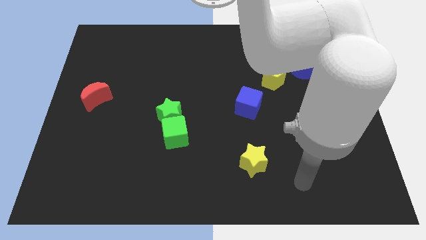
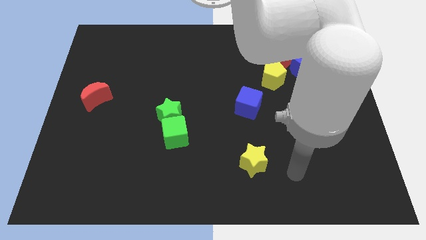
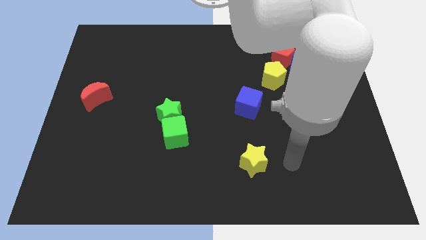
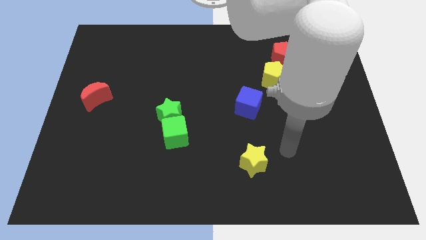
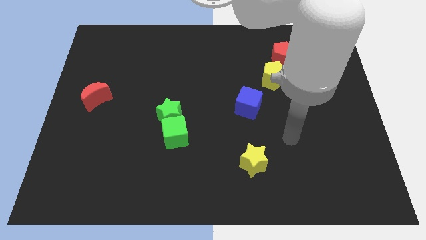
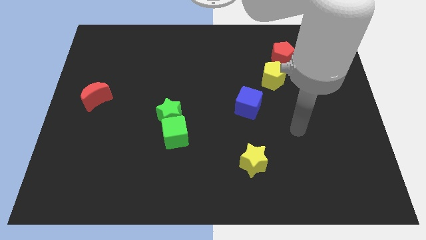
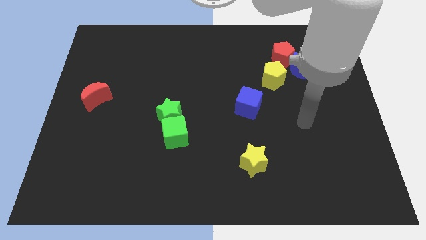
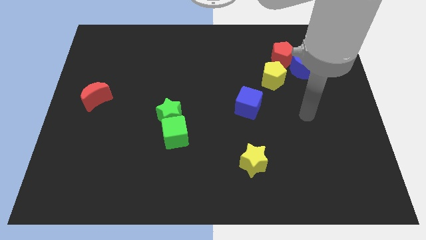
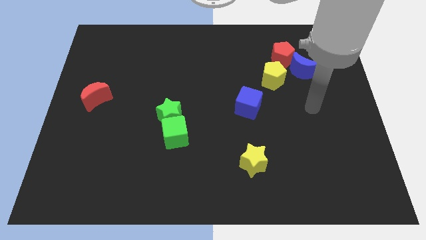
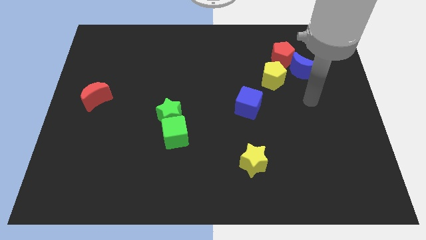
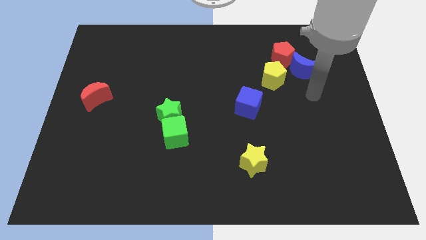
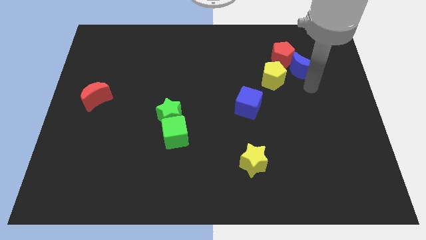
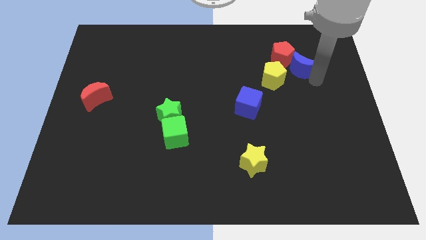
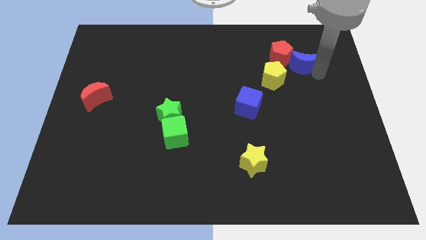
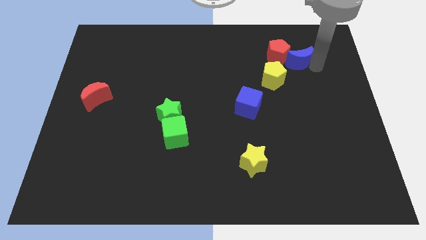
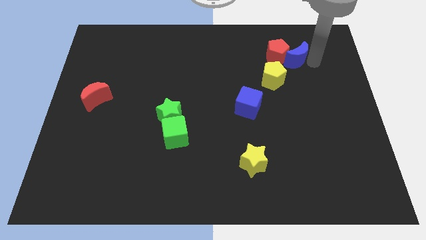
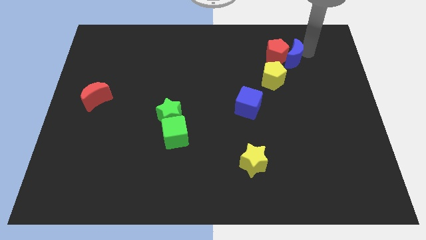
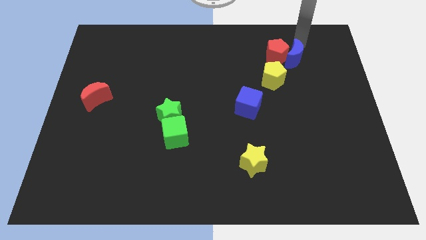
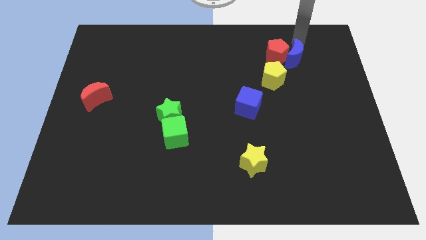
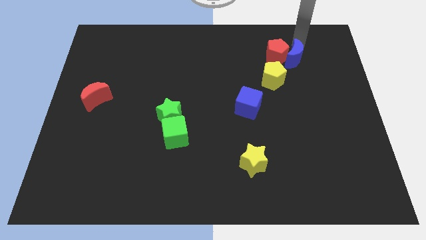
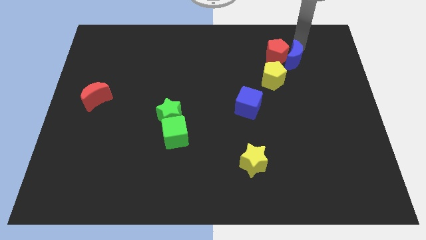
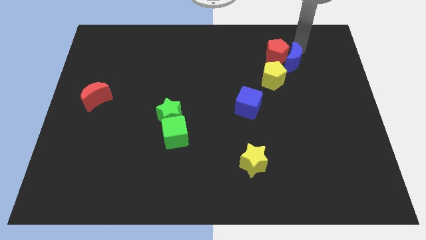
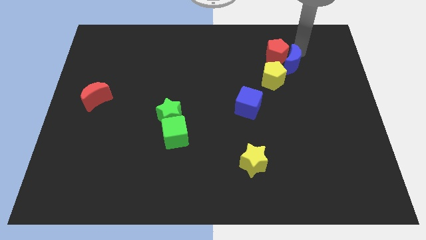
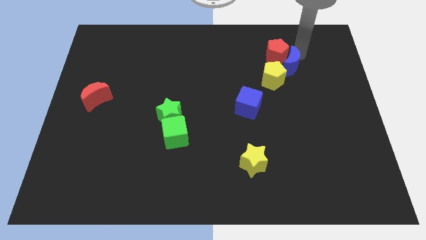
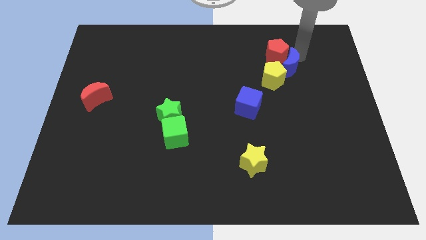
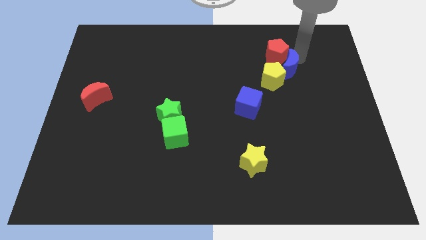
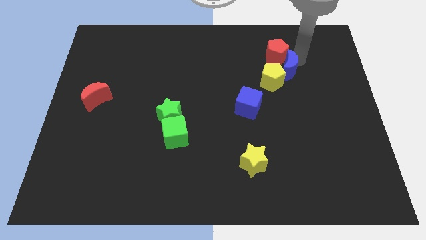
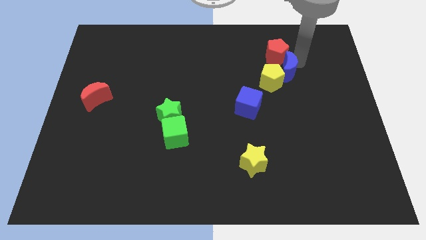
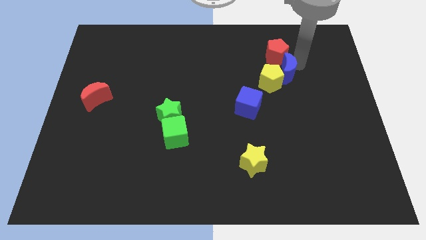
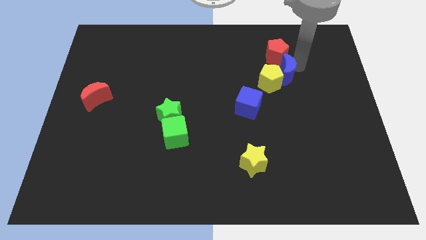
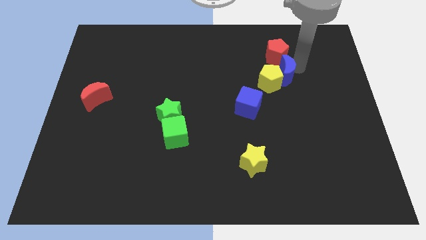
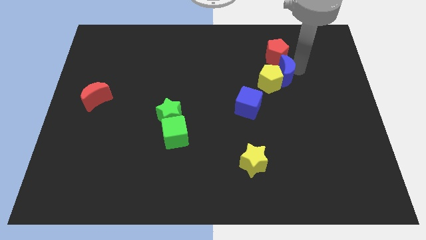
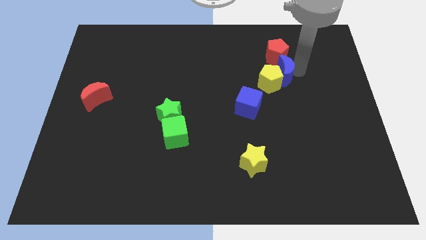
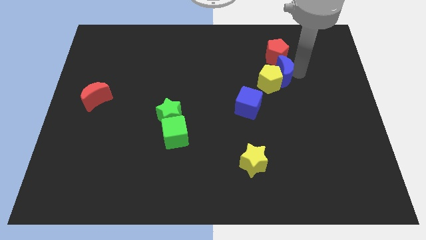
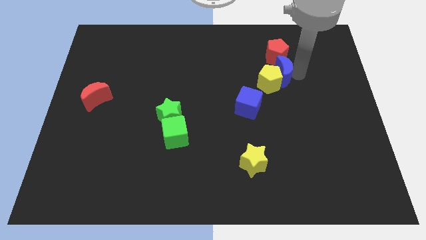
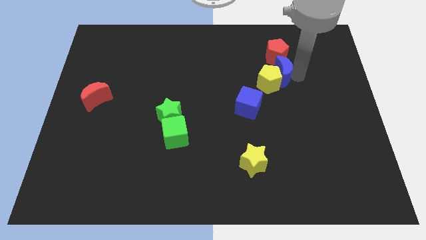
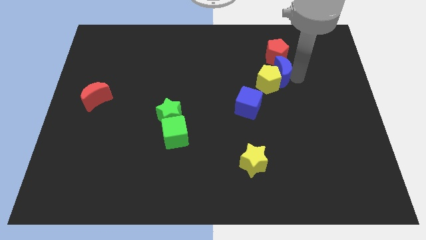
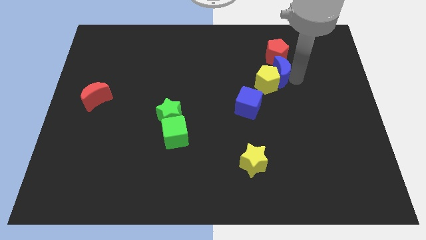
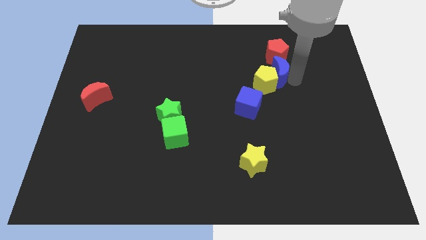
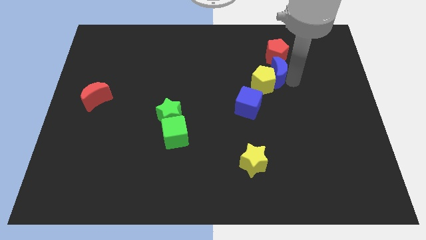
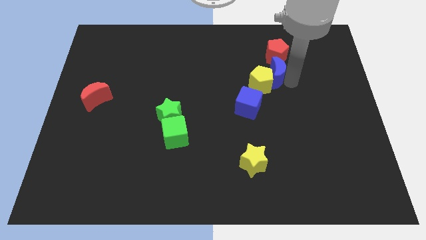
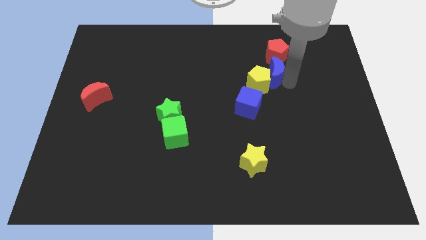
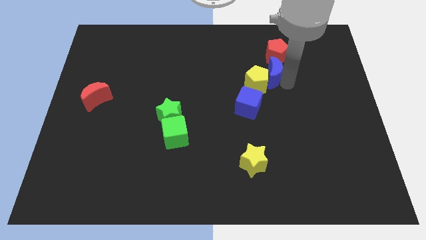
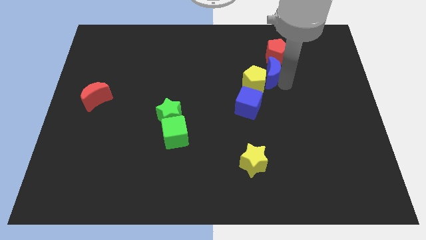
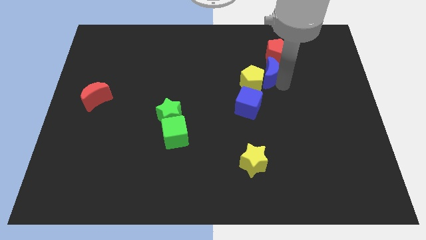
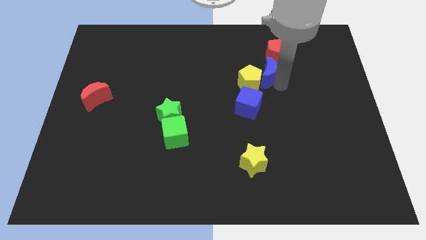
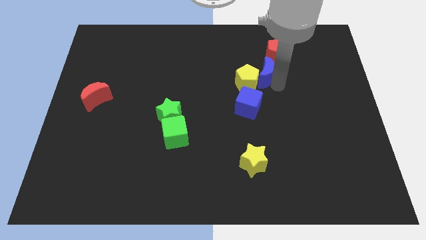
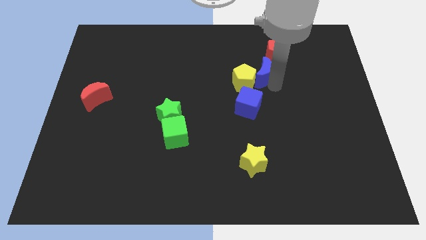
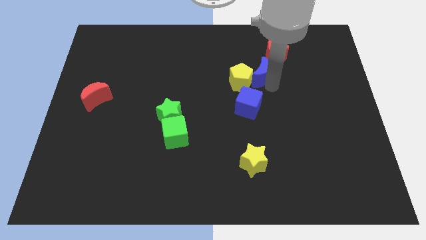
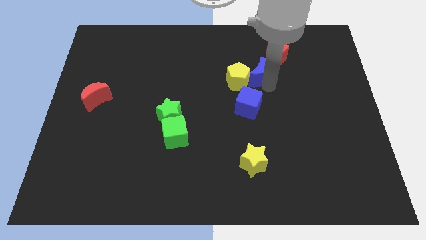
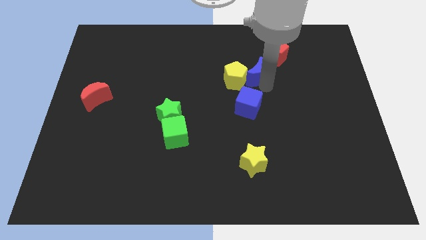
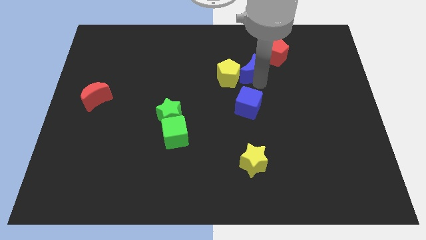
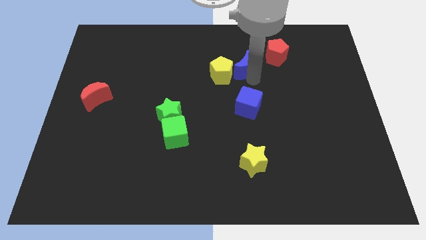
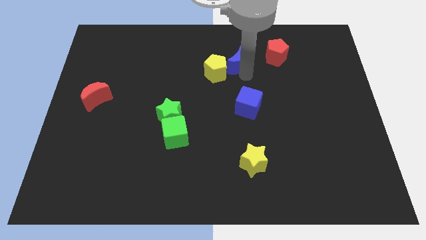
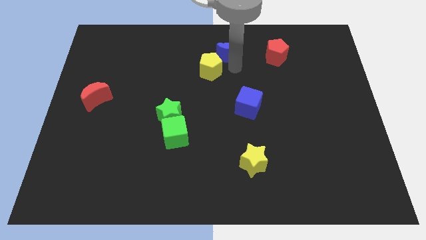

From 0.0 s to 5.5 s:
push the blue moon to the top side

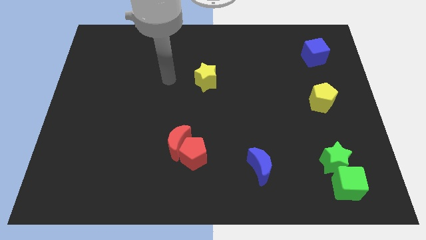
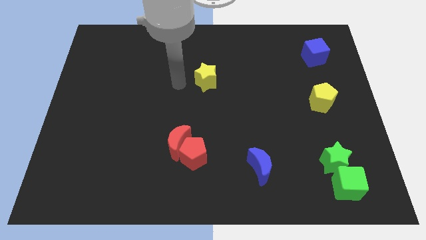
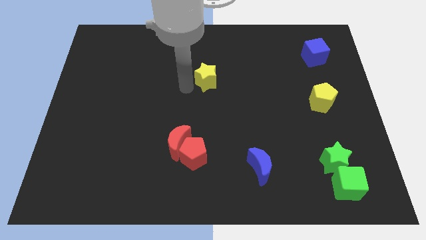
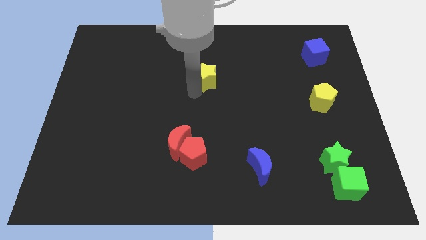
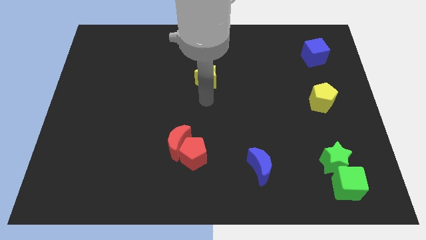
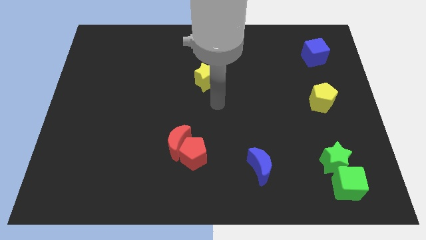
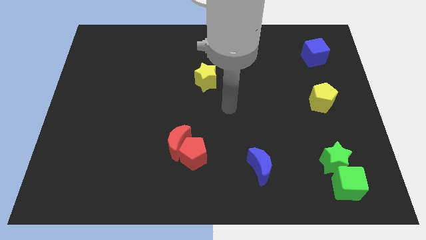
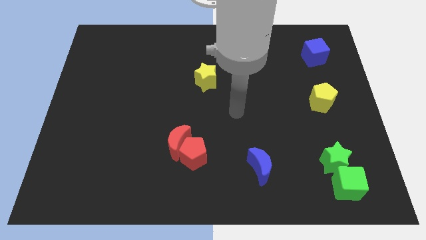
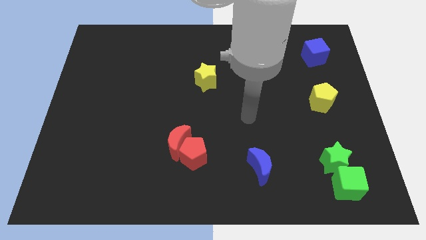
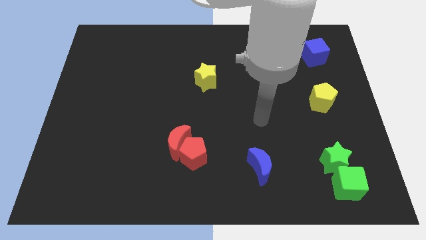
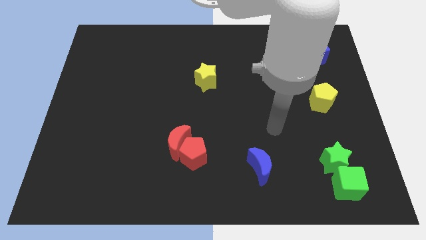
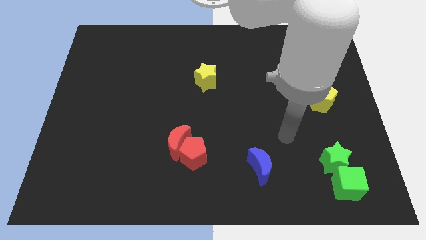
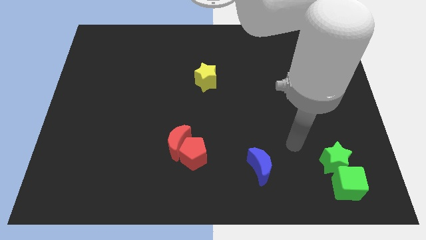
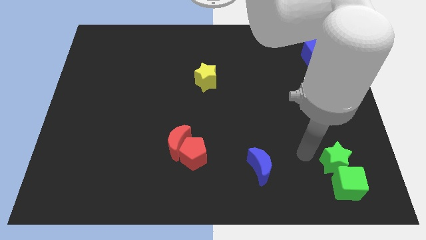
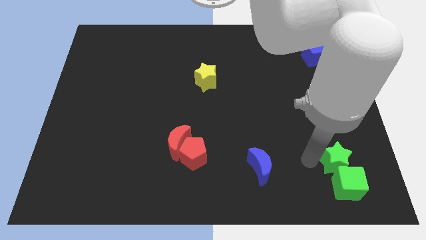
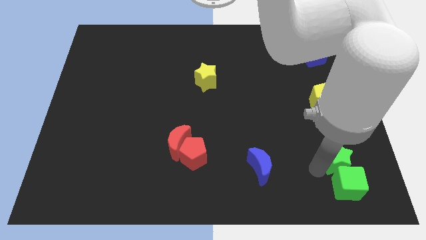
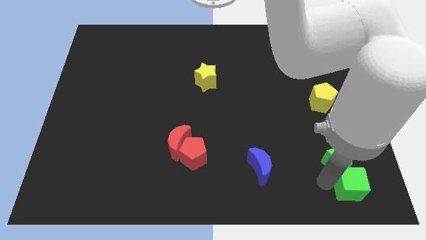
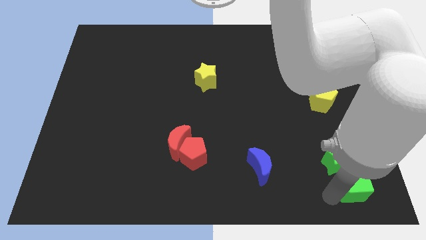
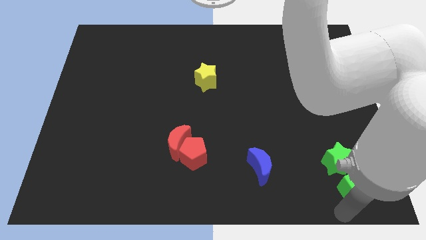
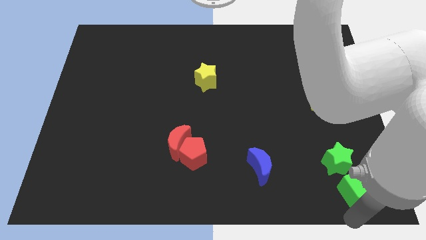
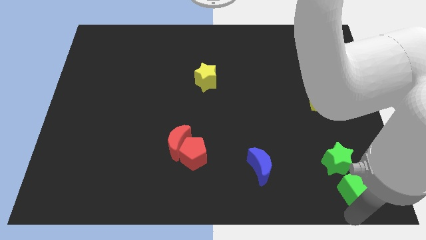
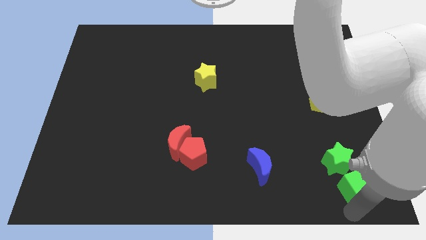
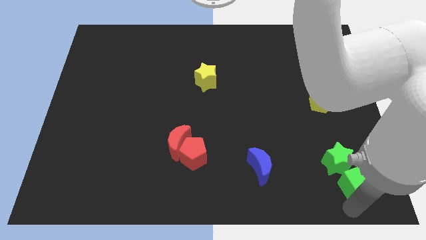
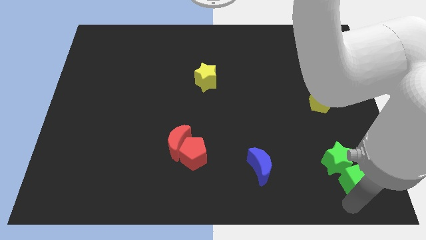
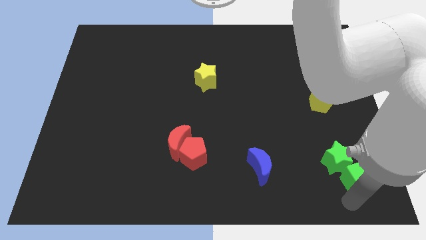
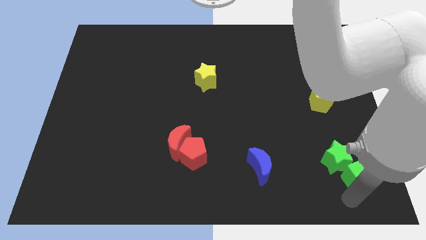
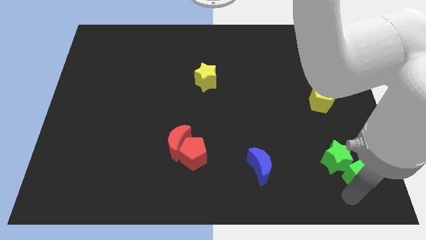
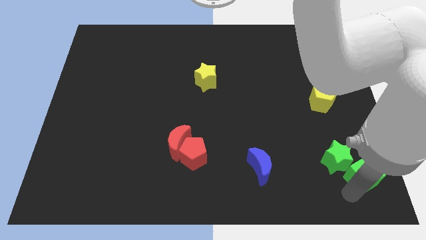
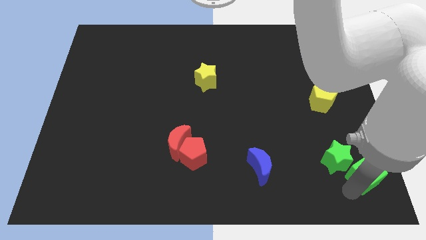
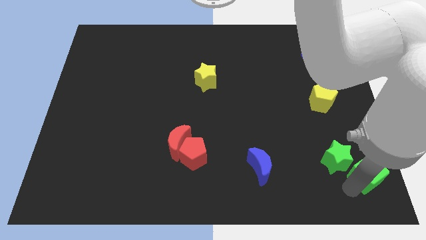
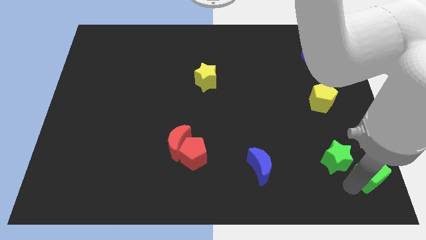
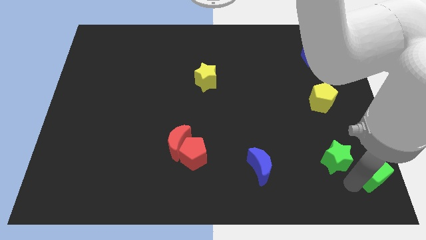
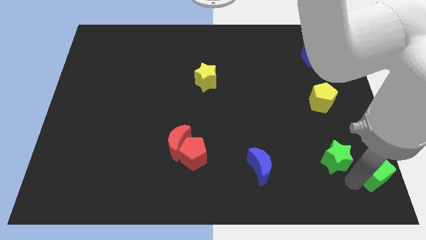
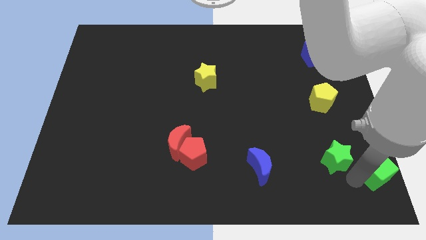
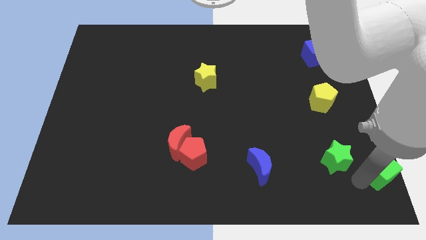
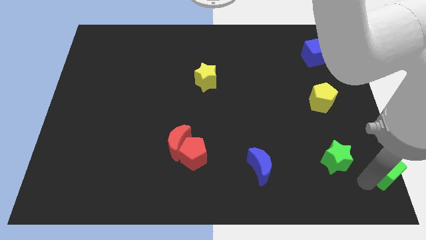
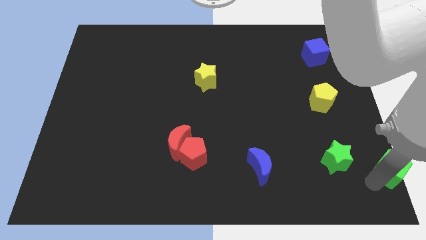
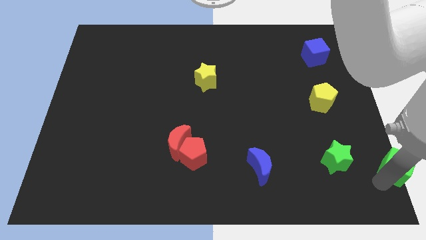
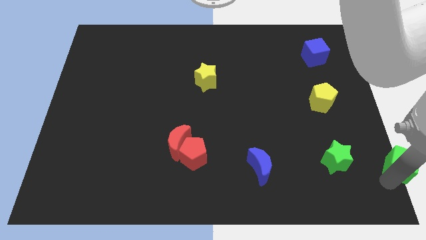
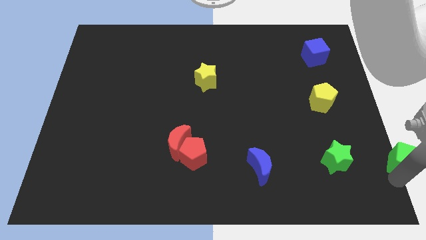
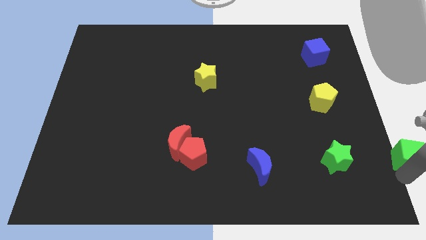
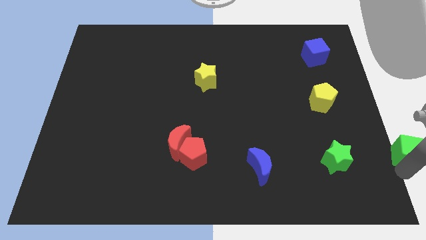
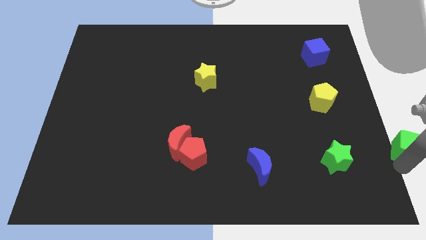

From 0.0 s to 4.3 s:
push the green cube to the right side
